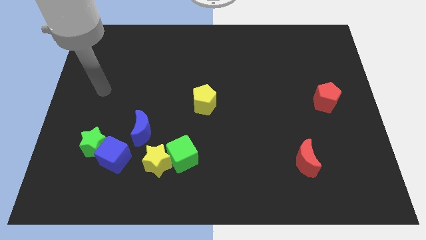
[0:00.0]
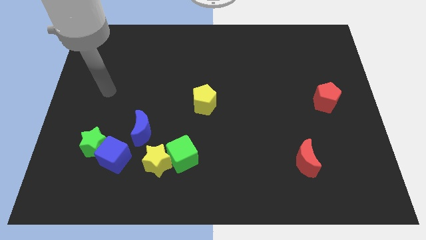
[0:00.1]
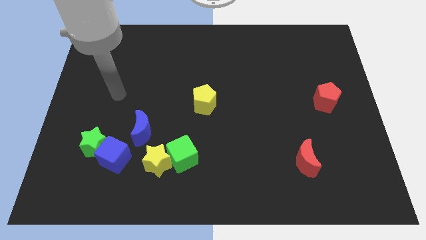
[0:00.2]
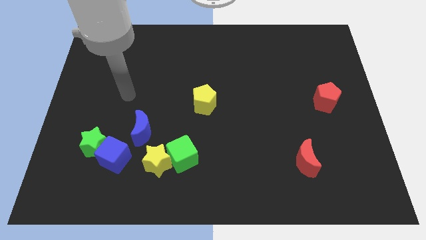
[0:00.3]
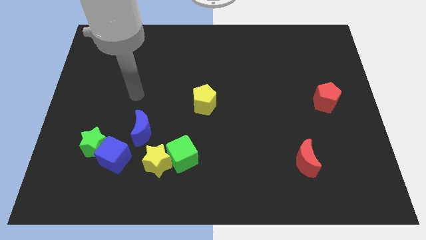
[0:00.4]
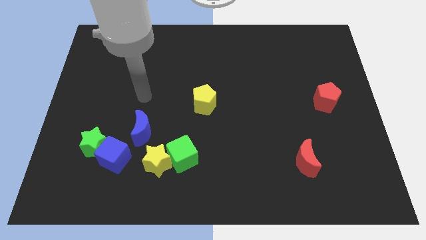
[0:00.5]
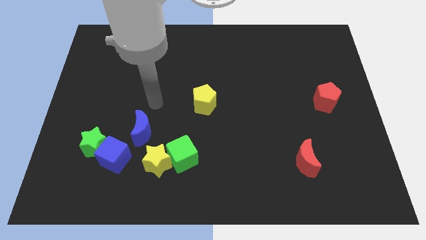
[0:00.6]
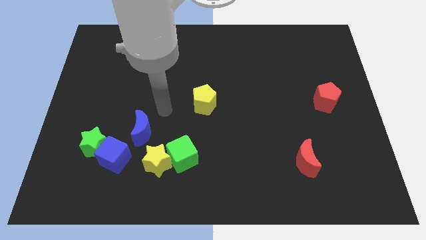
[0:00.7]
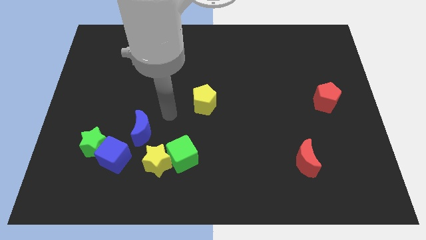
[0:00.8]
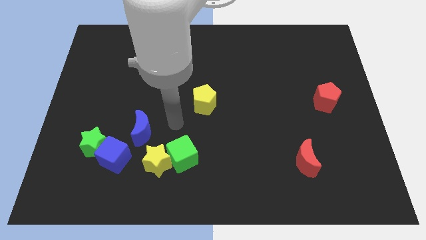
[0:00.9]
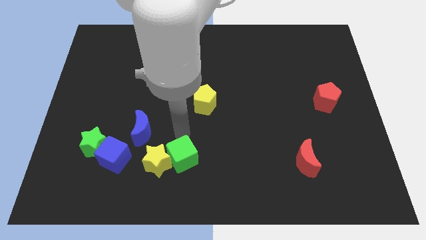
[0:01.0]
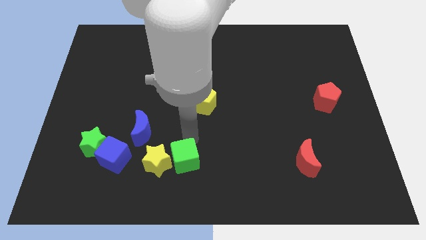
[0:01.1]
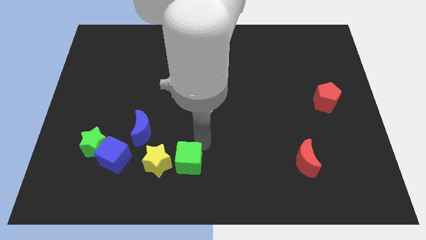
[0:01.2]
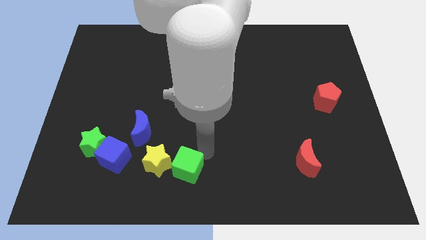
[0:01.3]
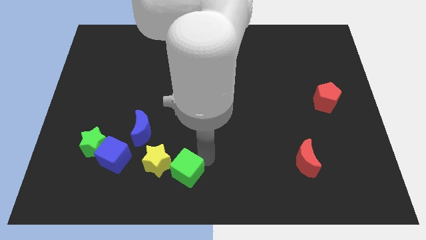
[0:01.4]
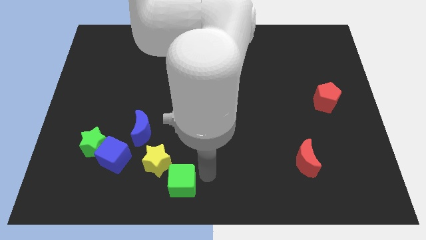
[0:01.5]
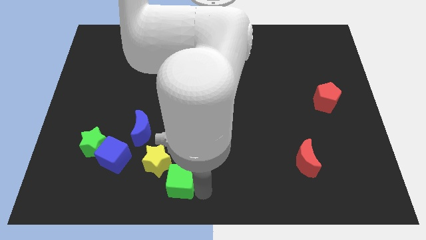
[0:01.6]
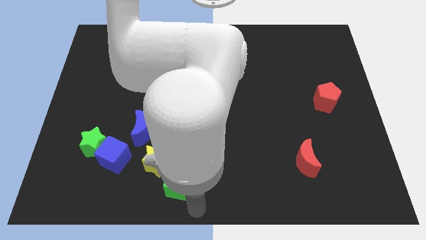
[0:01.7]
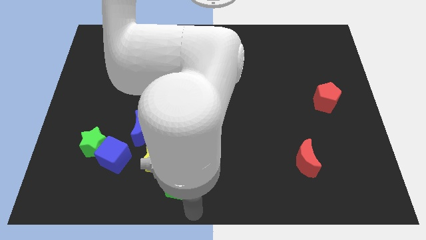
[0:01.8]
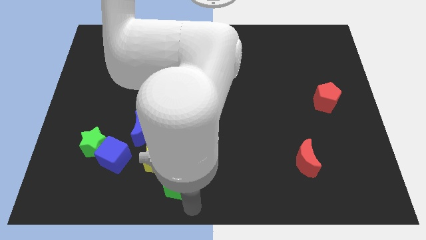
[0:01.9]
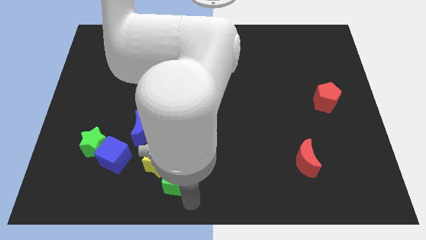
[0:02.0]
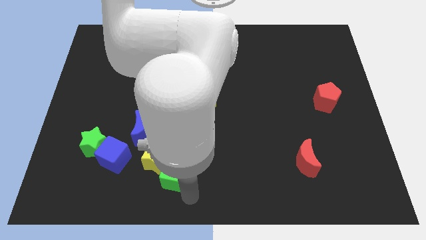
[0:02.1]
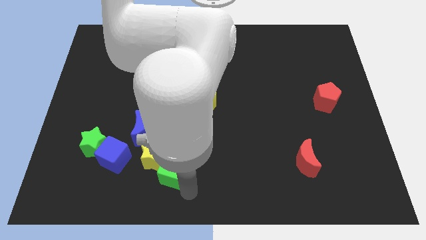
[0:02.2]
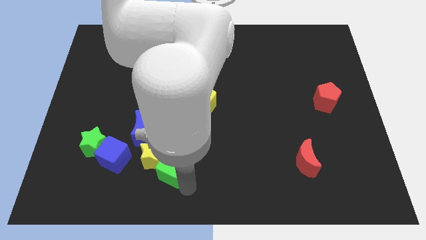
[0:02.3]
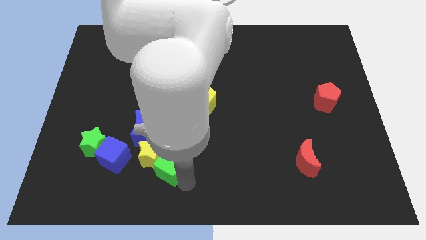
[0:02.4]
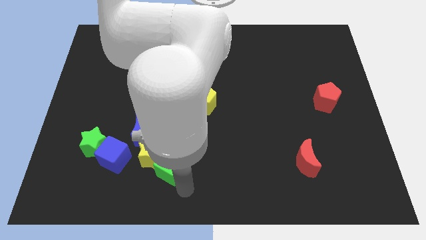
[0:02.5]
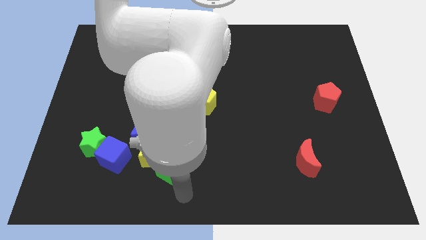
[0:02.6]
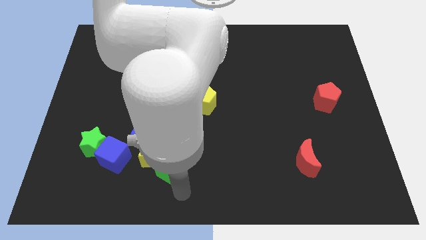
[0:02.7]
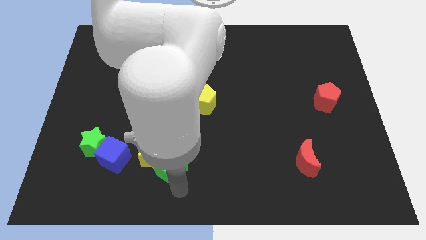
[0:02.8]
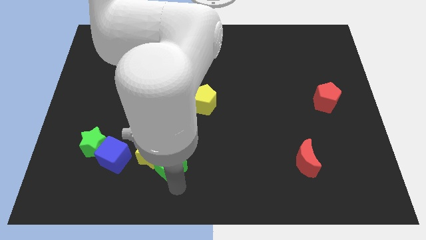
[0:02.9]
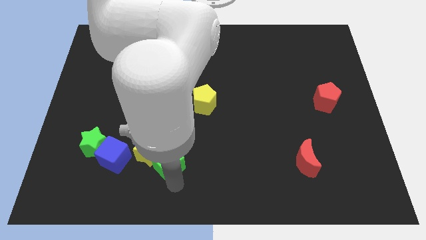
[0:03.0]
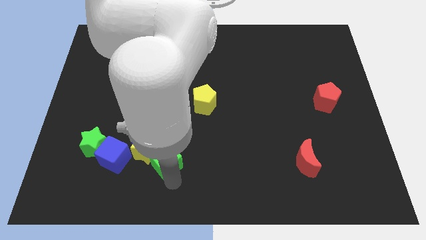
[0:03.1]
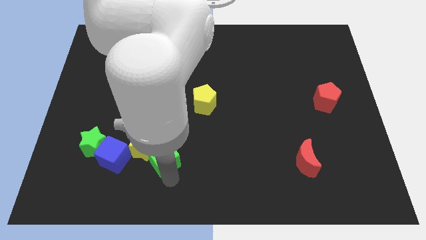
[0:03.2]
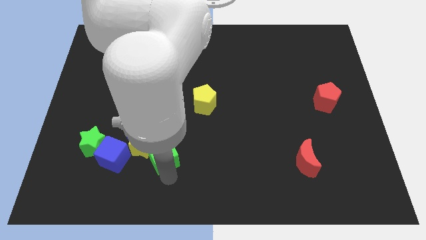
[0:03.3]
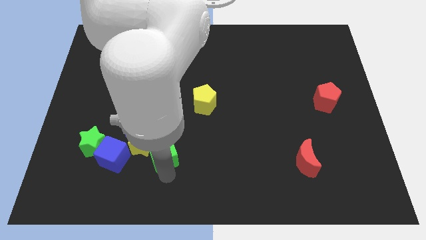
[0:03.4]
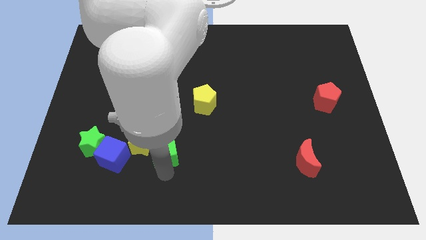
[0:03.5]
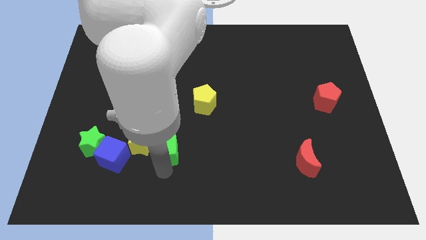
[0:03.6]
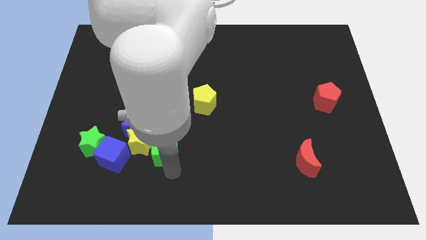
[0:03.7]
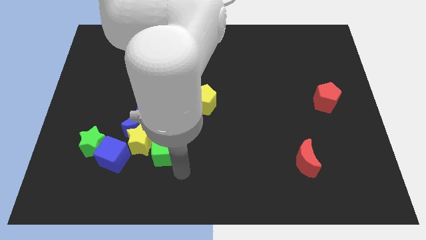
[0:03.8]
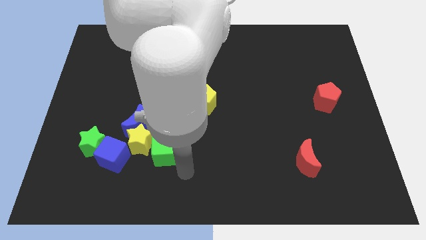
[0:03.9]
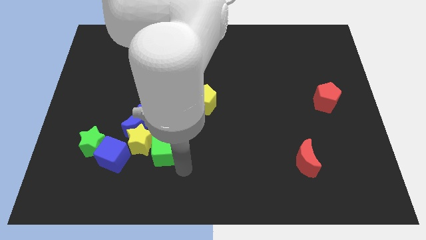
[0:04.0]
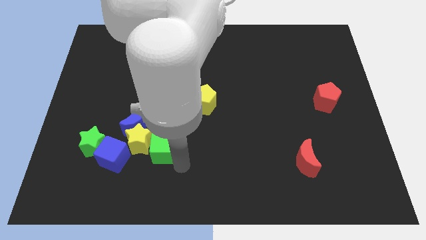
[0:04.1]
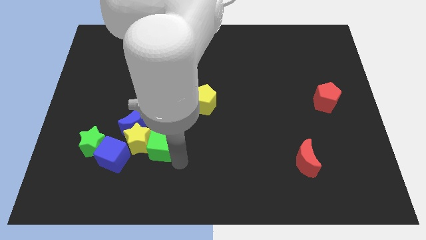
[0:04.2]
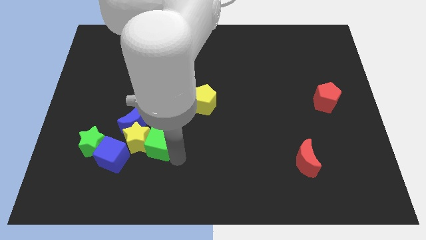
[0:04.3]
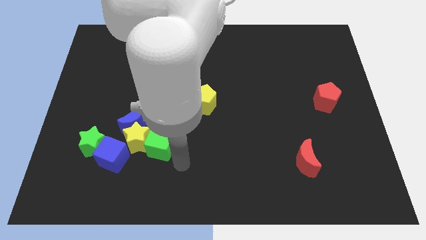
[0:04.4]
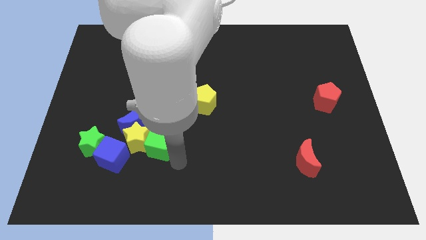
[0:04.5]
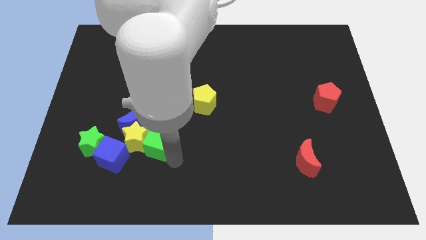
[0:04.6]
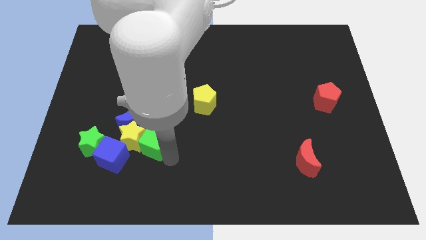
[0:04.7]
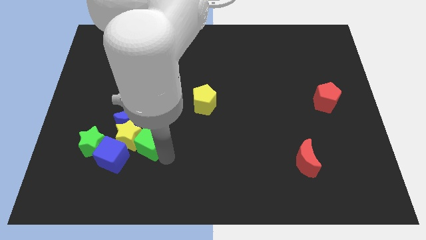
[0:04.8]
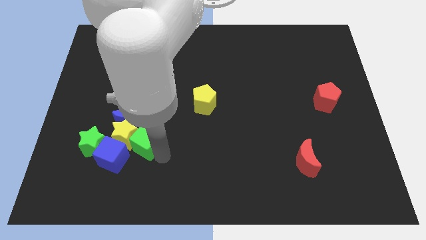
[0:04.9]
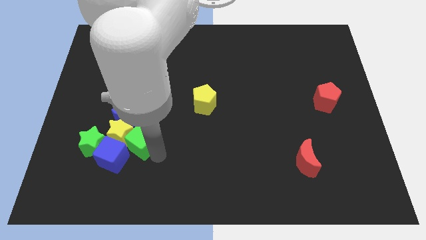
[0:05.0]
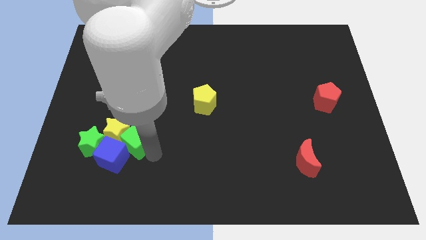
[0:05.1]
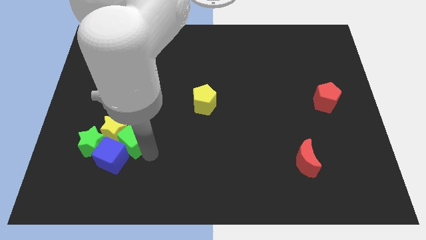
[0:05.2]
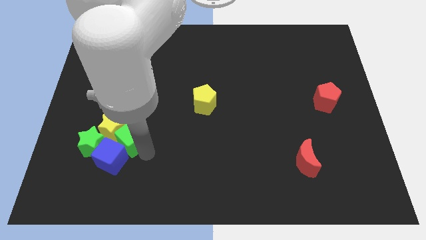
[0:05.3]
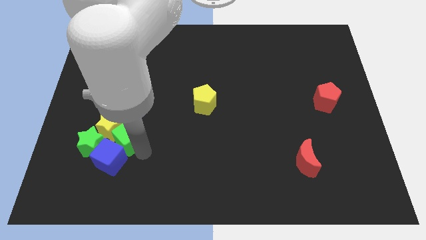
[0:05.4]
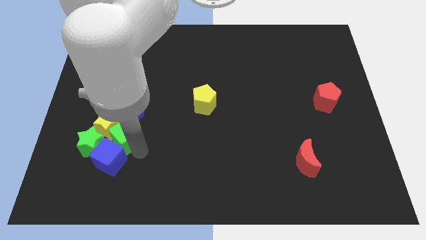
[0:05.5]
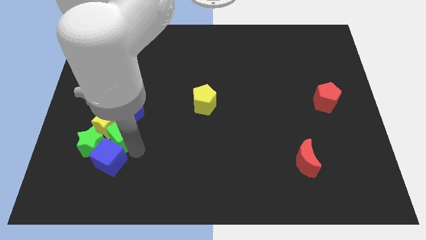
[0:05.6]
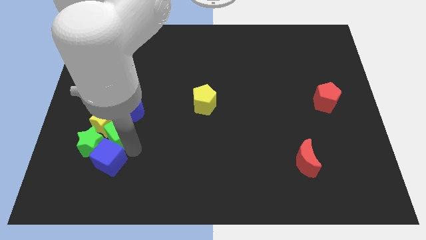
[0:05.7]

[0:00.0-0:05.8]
put the green cube close to the blue moon
